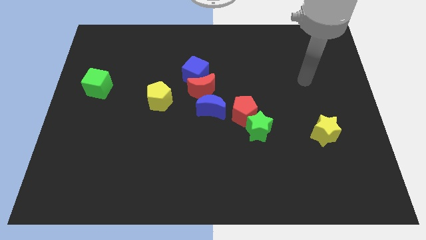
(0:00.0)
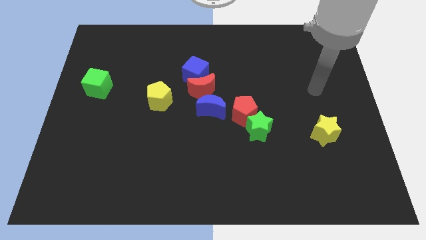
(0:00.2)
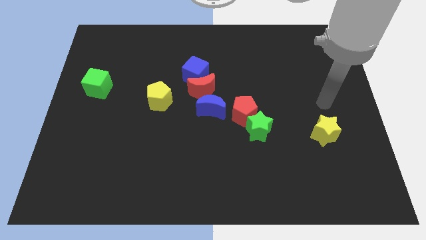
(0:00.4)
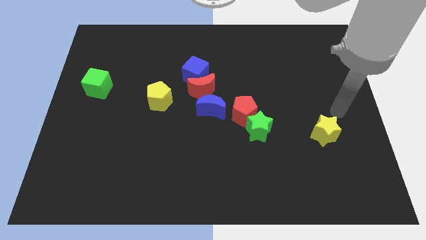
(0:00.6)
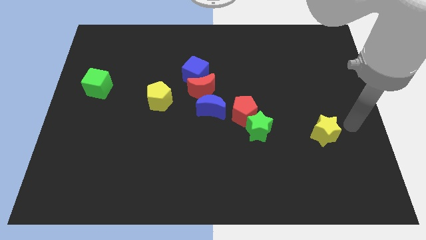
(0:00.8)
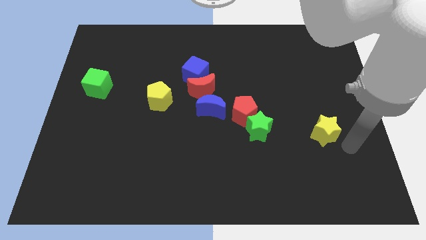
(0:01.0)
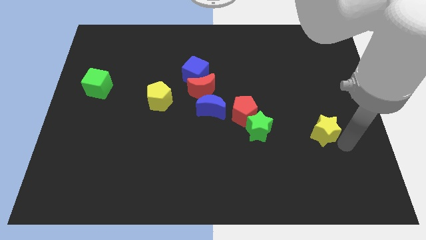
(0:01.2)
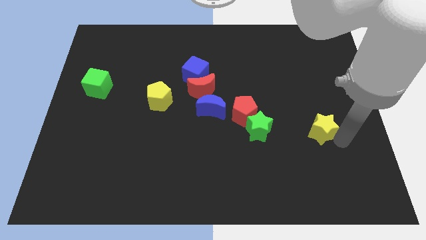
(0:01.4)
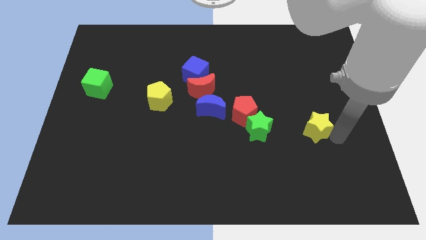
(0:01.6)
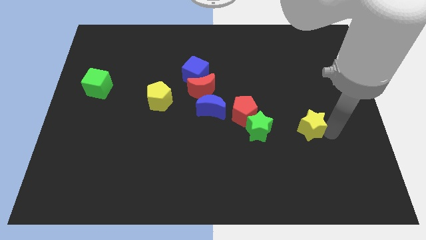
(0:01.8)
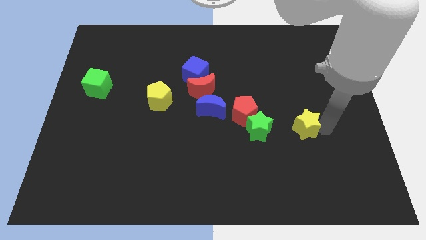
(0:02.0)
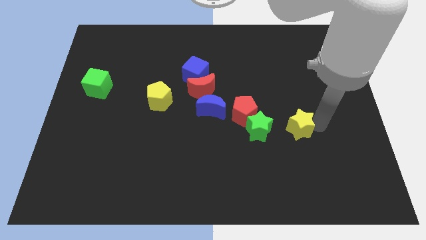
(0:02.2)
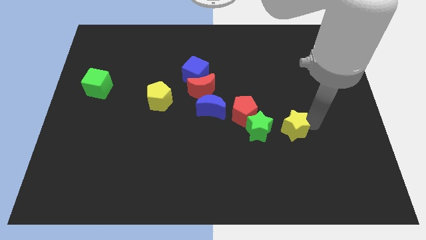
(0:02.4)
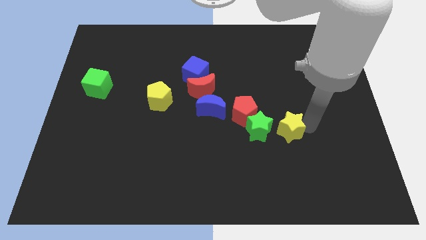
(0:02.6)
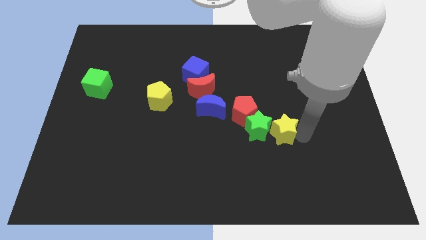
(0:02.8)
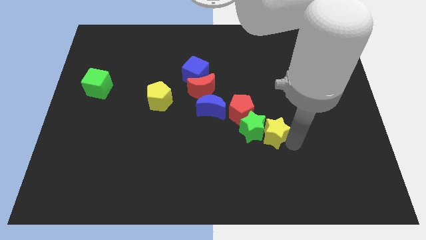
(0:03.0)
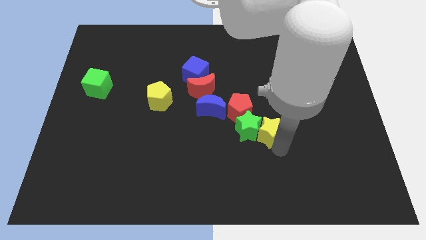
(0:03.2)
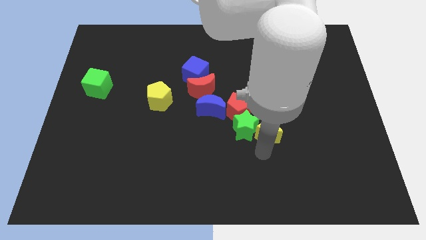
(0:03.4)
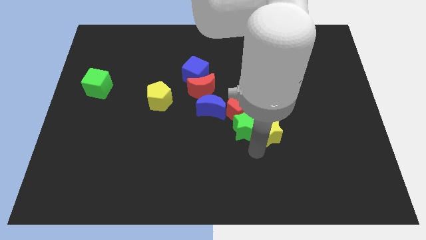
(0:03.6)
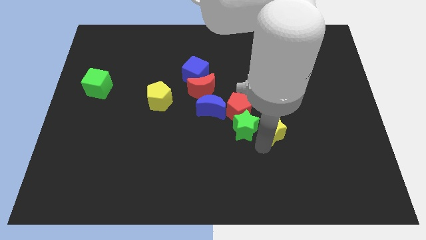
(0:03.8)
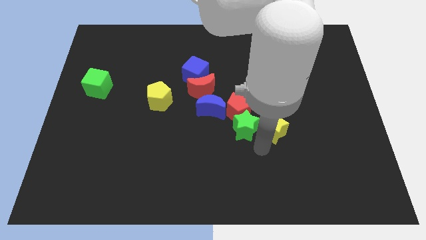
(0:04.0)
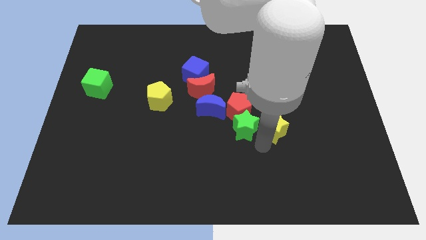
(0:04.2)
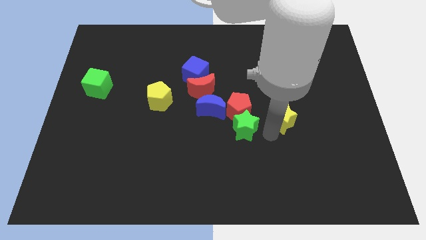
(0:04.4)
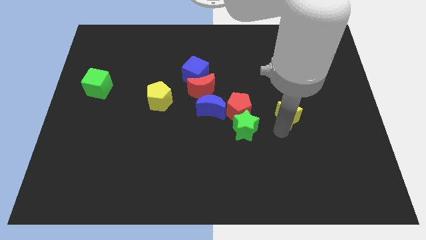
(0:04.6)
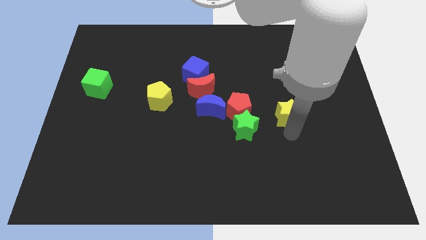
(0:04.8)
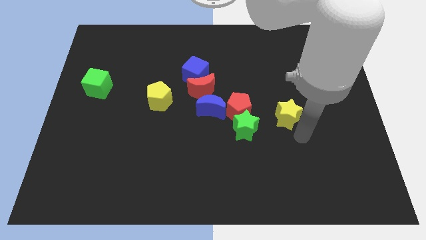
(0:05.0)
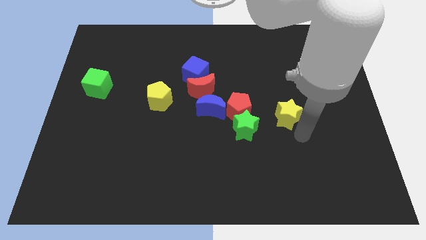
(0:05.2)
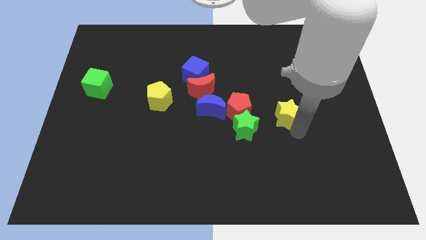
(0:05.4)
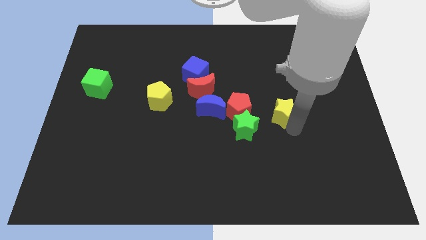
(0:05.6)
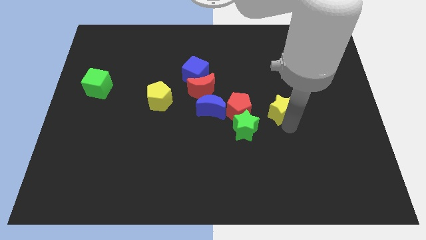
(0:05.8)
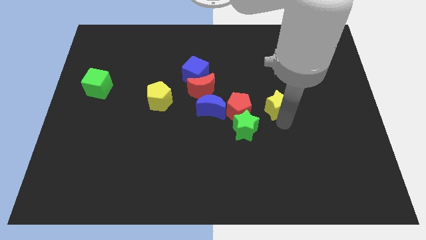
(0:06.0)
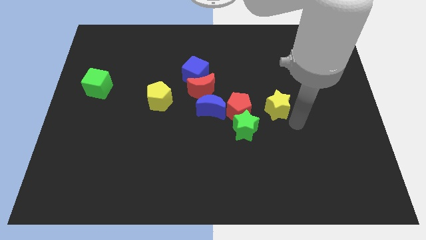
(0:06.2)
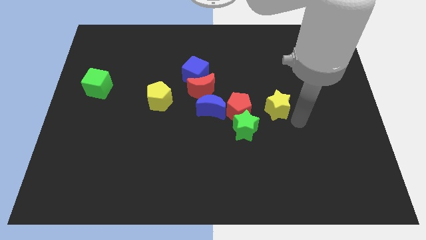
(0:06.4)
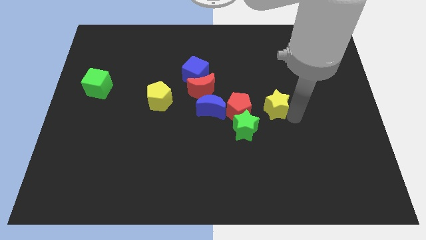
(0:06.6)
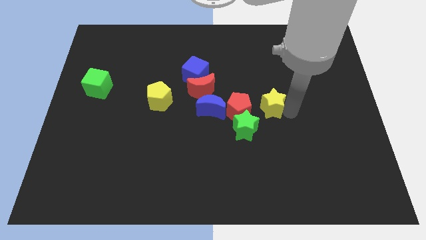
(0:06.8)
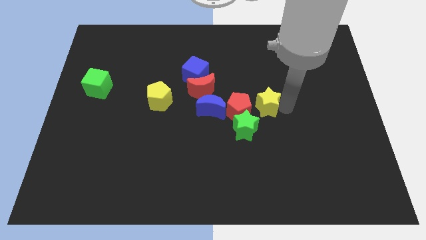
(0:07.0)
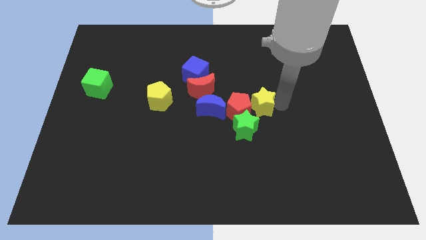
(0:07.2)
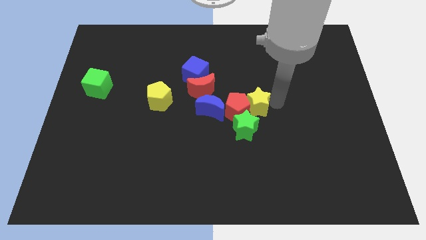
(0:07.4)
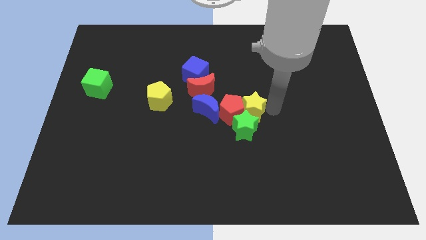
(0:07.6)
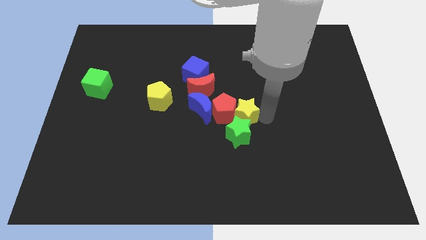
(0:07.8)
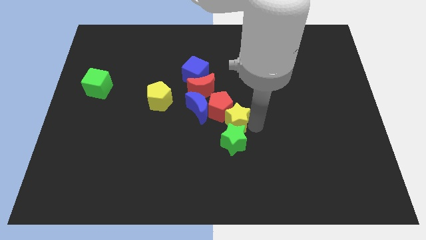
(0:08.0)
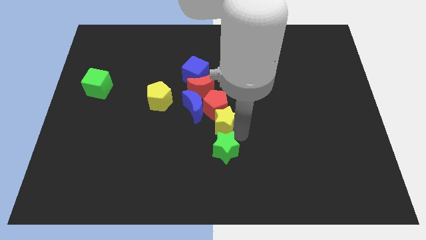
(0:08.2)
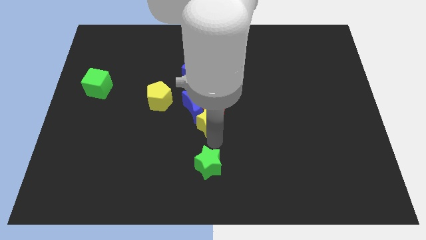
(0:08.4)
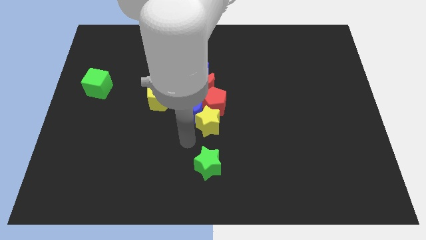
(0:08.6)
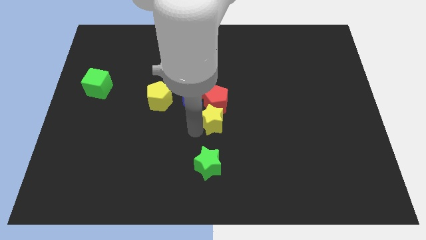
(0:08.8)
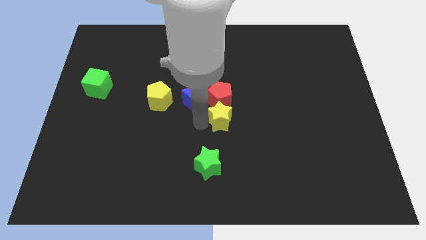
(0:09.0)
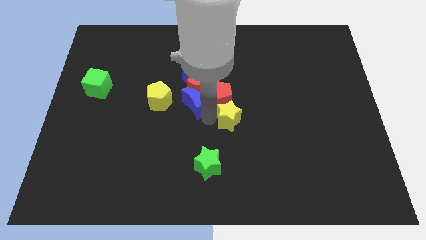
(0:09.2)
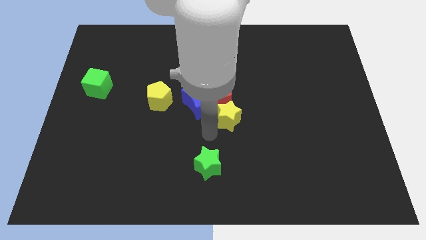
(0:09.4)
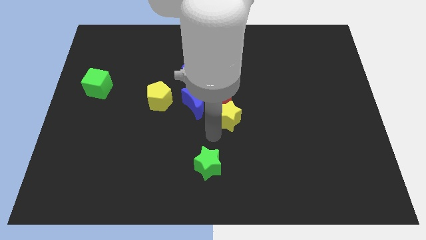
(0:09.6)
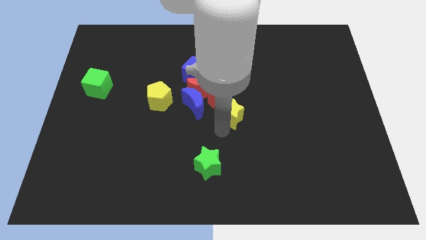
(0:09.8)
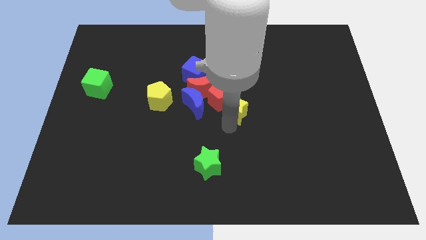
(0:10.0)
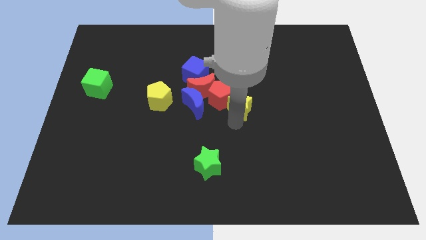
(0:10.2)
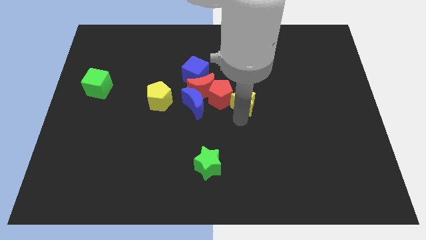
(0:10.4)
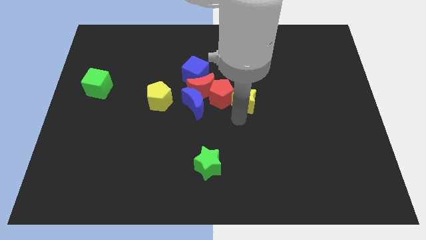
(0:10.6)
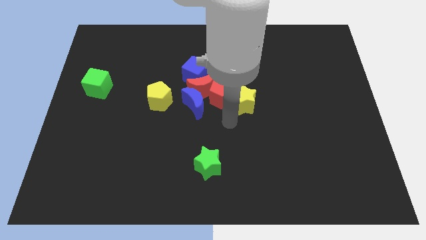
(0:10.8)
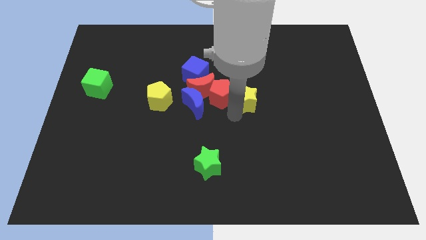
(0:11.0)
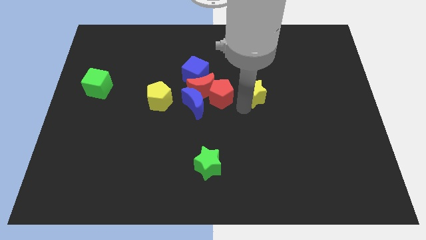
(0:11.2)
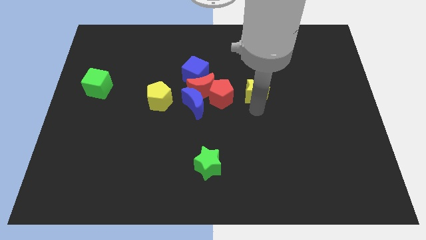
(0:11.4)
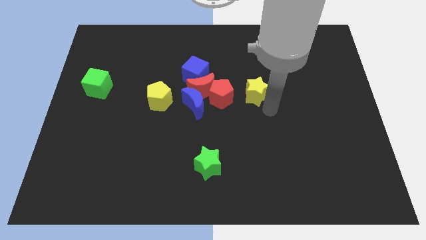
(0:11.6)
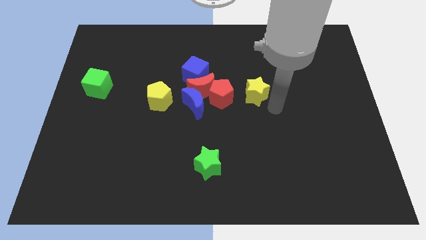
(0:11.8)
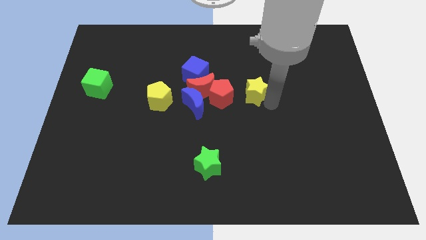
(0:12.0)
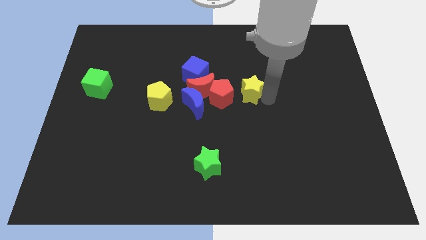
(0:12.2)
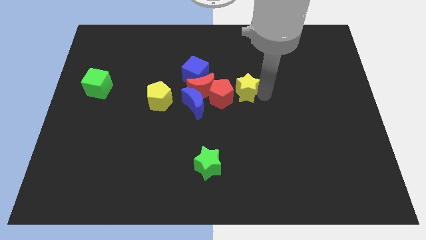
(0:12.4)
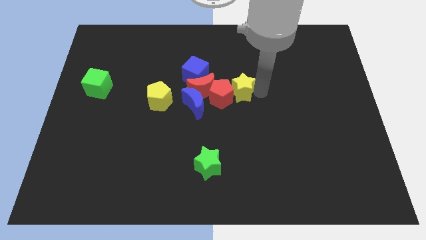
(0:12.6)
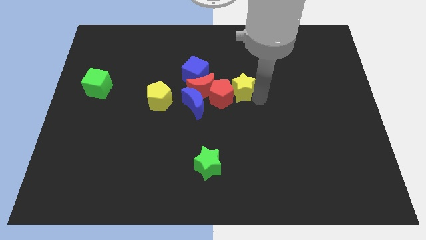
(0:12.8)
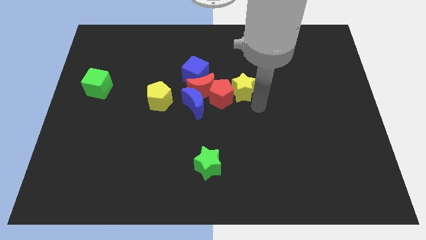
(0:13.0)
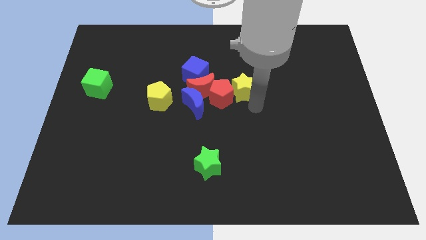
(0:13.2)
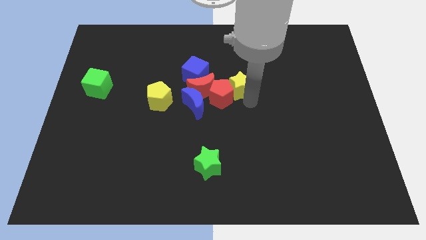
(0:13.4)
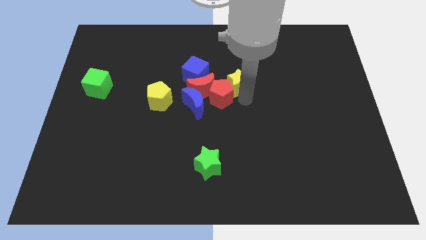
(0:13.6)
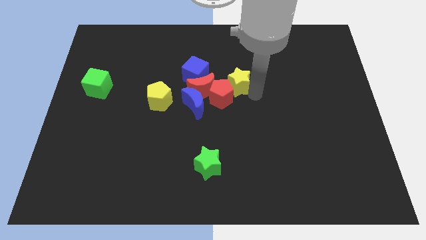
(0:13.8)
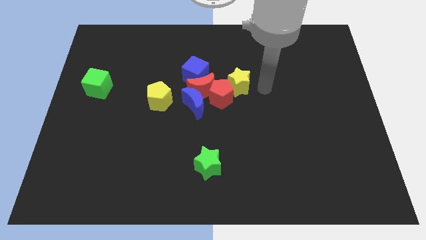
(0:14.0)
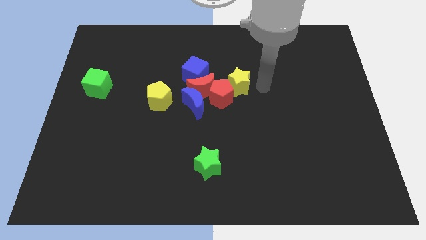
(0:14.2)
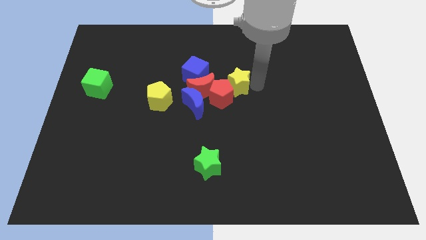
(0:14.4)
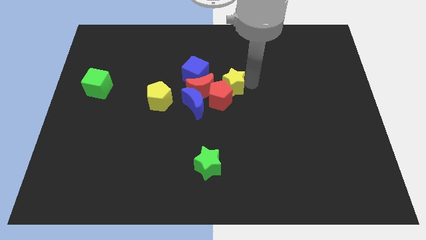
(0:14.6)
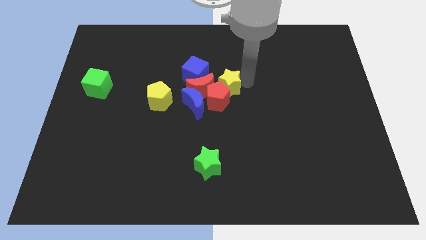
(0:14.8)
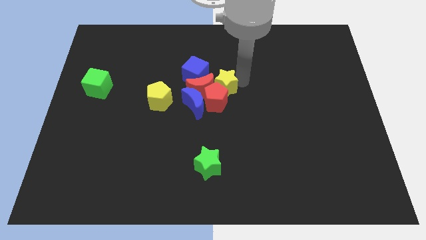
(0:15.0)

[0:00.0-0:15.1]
push the yellow star towards the red moon
